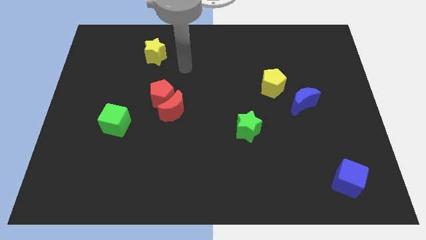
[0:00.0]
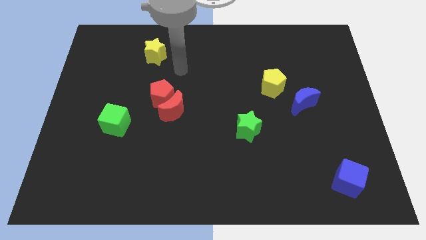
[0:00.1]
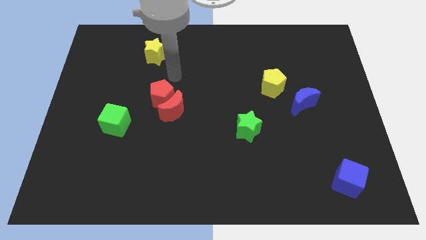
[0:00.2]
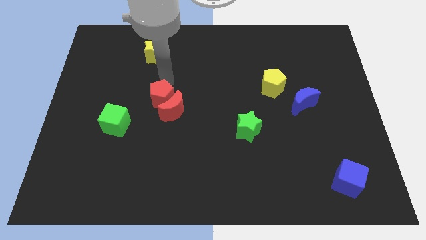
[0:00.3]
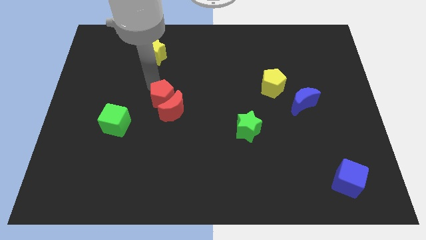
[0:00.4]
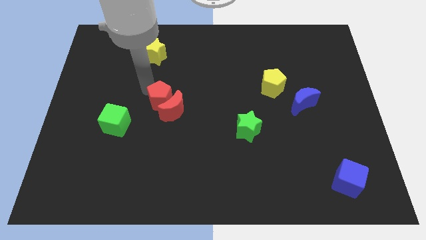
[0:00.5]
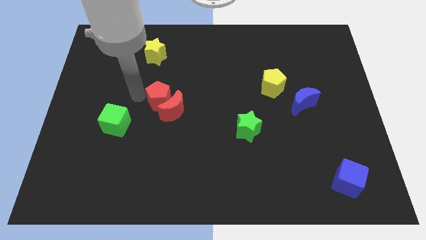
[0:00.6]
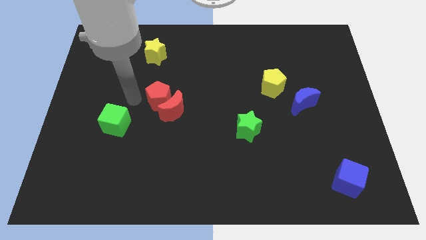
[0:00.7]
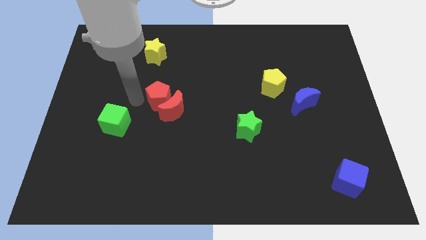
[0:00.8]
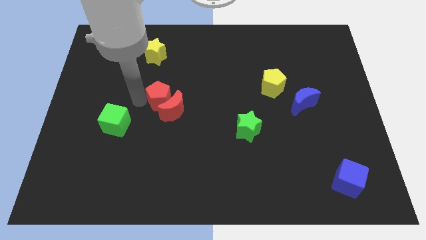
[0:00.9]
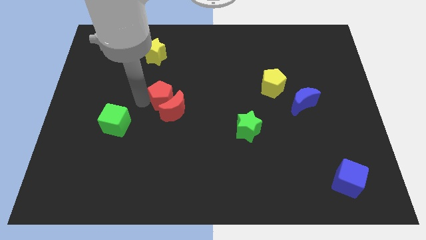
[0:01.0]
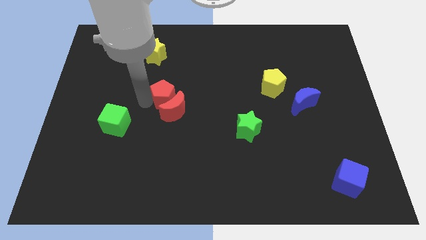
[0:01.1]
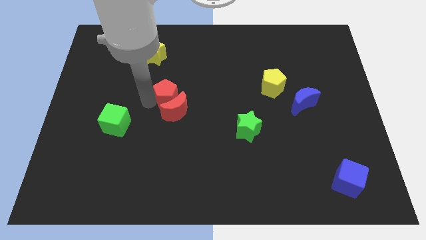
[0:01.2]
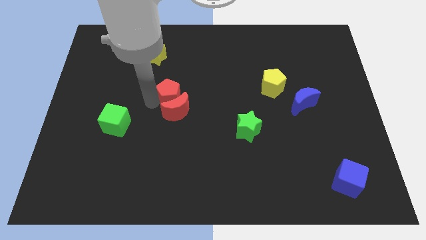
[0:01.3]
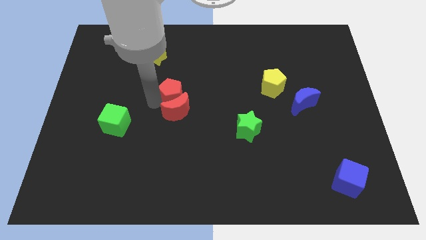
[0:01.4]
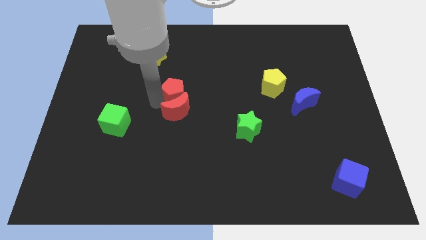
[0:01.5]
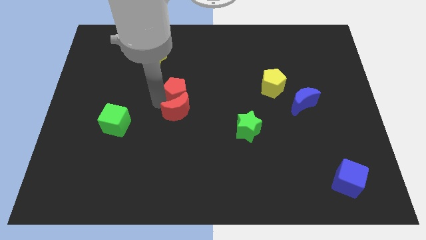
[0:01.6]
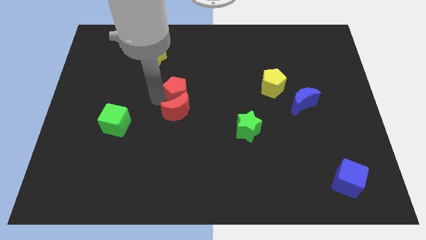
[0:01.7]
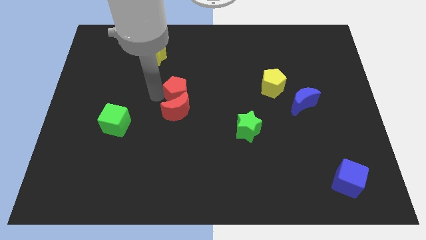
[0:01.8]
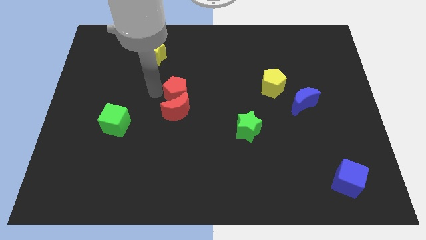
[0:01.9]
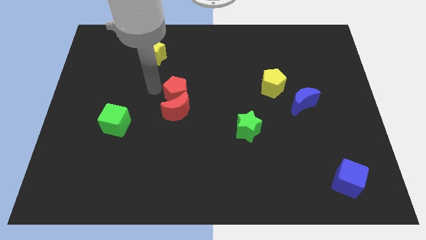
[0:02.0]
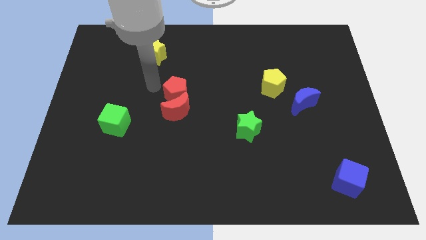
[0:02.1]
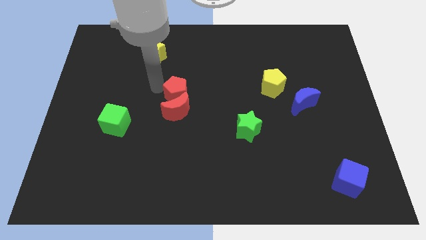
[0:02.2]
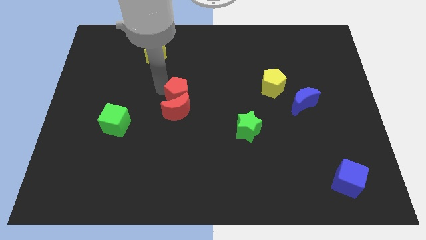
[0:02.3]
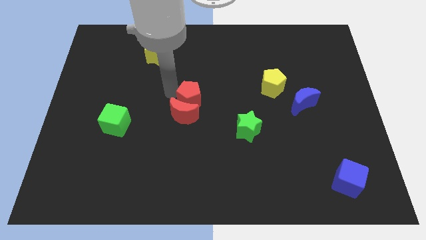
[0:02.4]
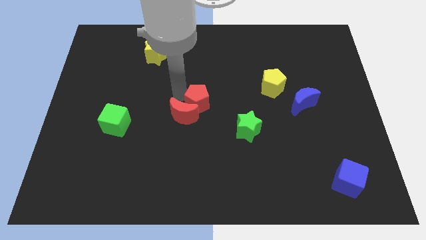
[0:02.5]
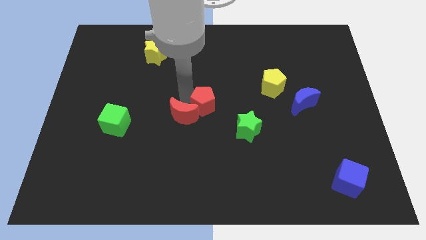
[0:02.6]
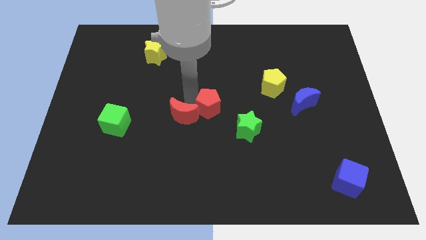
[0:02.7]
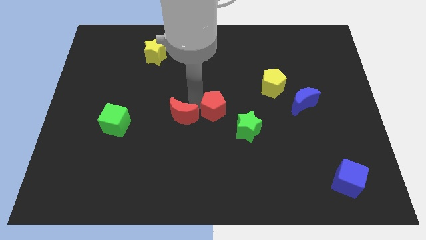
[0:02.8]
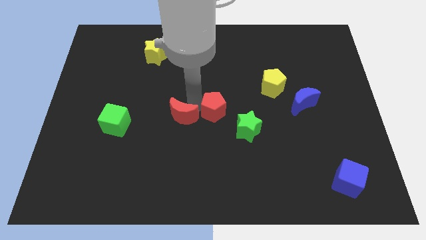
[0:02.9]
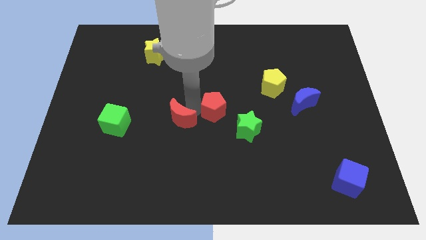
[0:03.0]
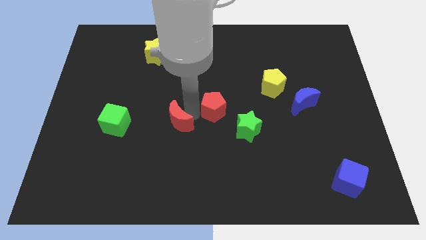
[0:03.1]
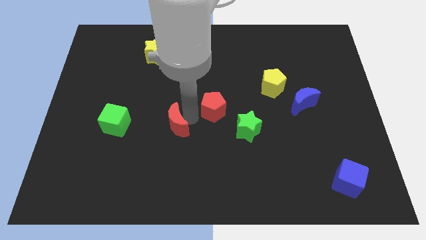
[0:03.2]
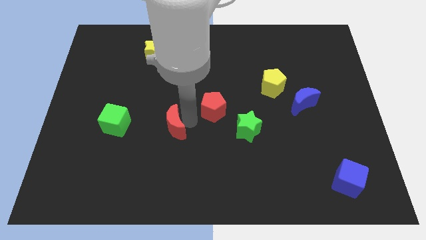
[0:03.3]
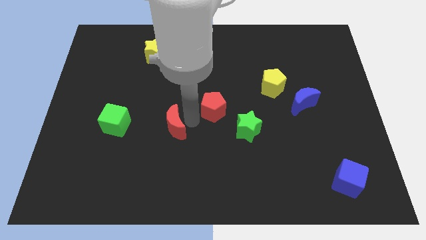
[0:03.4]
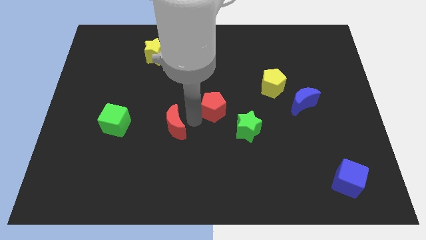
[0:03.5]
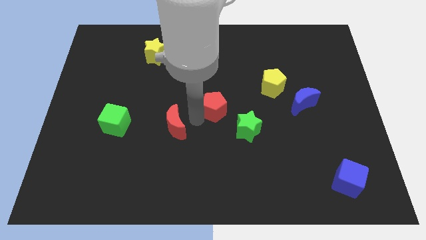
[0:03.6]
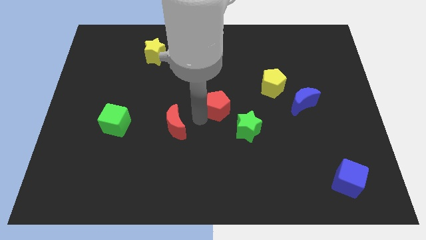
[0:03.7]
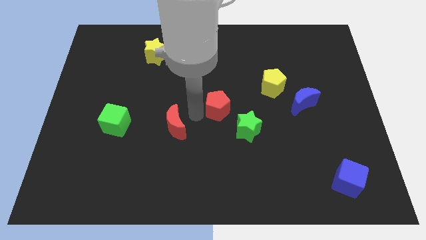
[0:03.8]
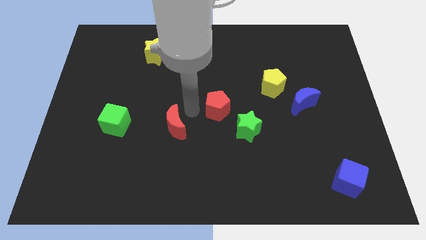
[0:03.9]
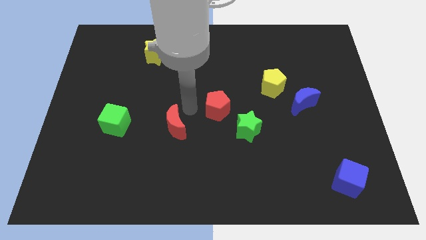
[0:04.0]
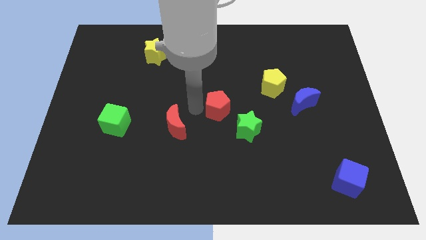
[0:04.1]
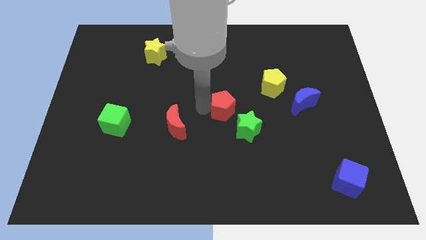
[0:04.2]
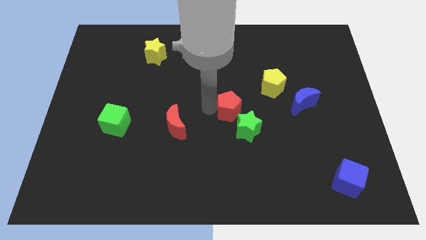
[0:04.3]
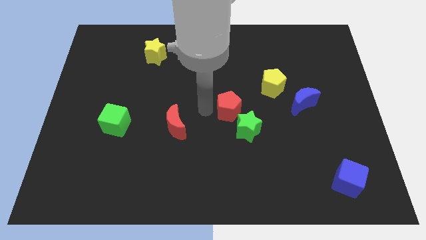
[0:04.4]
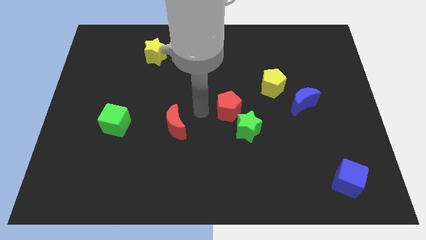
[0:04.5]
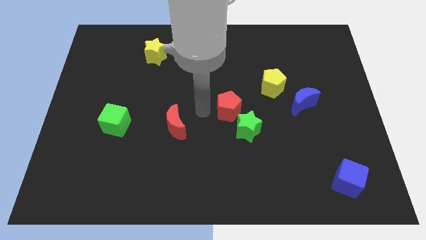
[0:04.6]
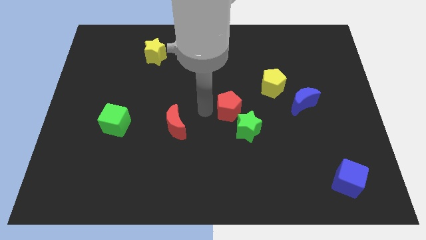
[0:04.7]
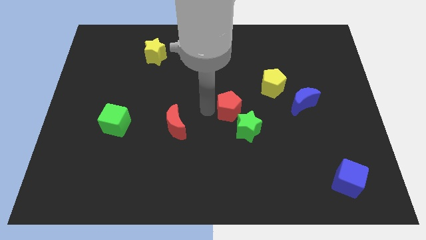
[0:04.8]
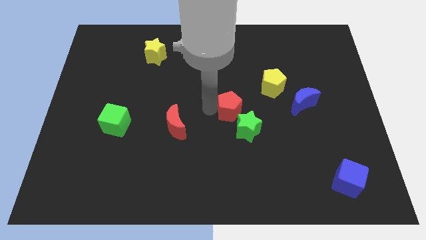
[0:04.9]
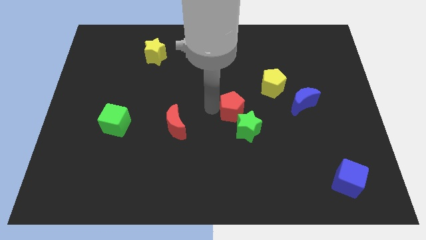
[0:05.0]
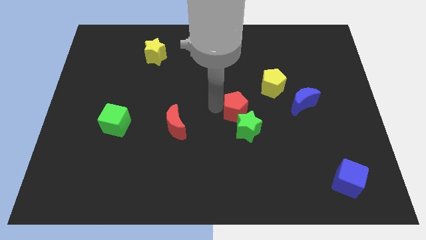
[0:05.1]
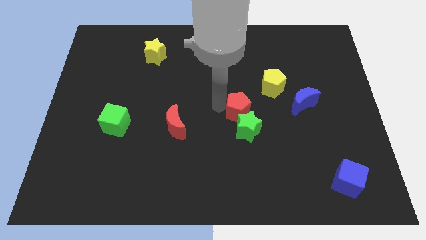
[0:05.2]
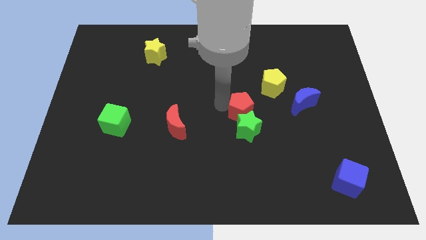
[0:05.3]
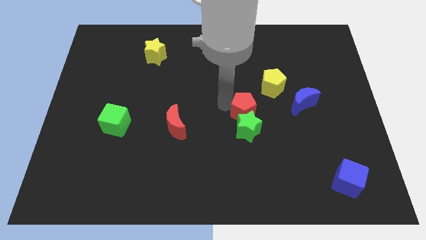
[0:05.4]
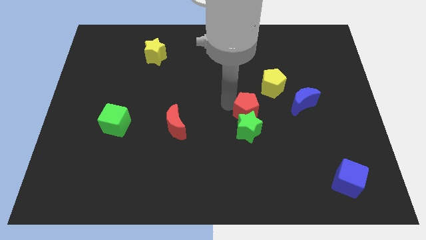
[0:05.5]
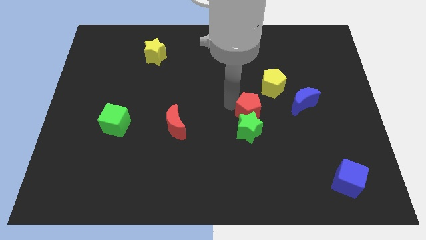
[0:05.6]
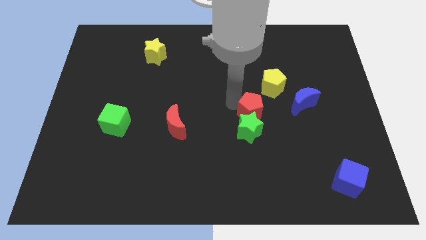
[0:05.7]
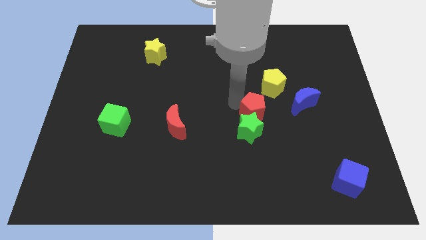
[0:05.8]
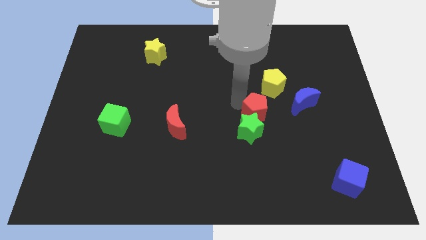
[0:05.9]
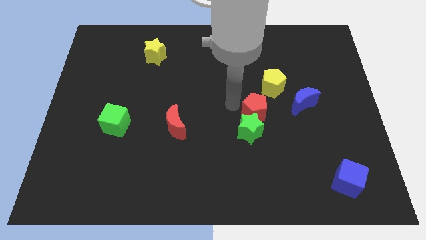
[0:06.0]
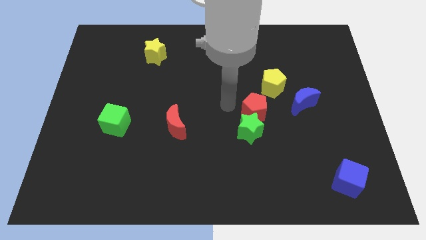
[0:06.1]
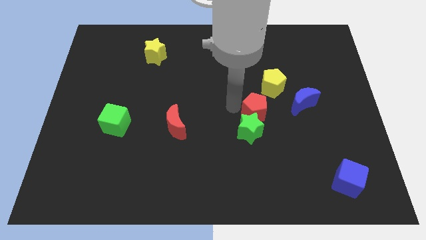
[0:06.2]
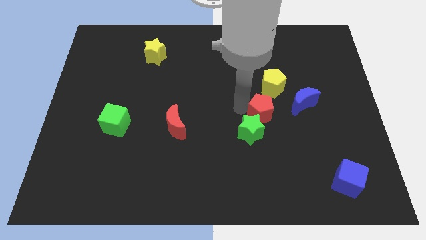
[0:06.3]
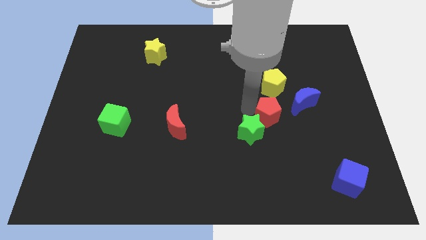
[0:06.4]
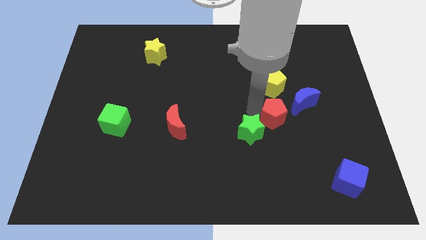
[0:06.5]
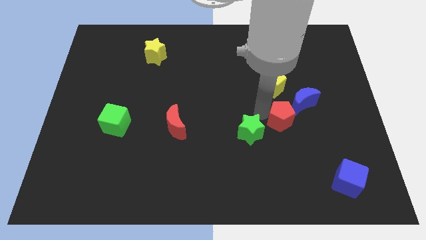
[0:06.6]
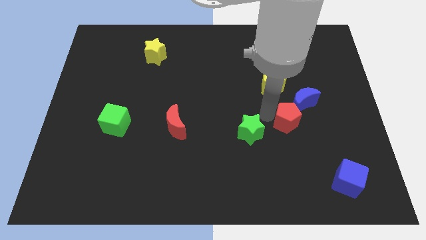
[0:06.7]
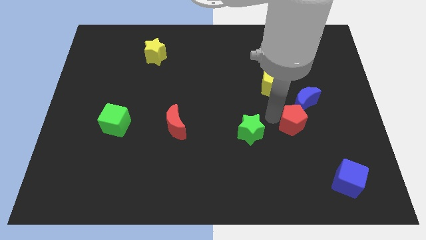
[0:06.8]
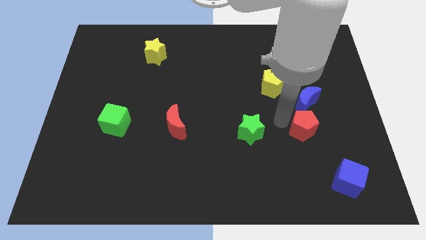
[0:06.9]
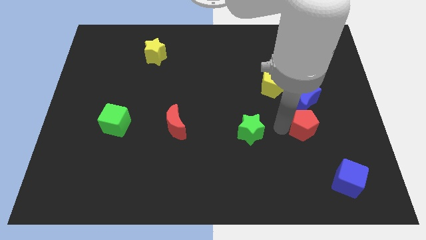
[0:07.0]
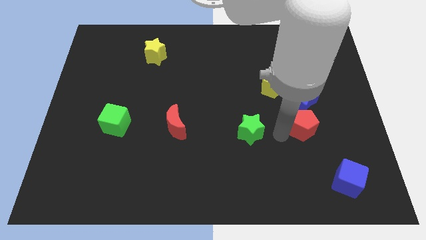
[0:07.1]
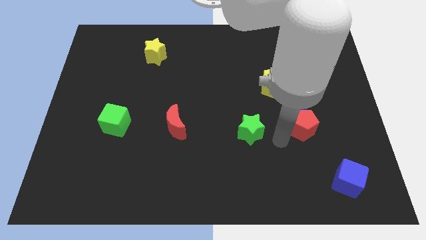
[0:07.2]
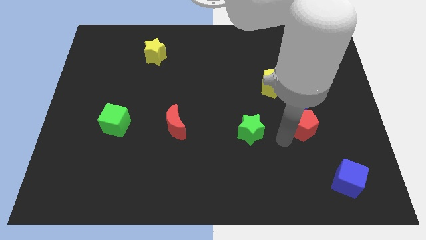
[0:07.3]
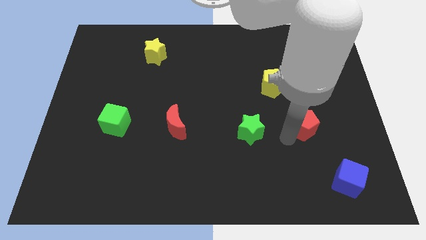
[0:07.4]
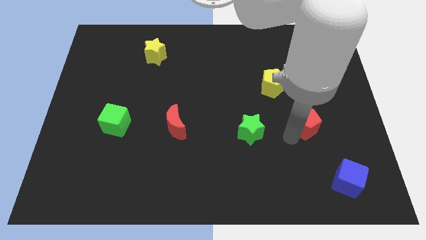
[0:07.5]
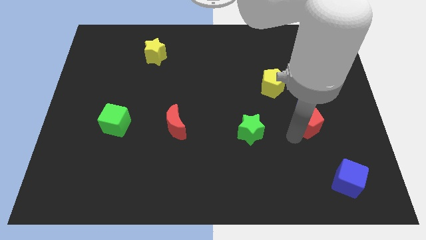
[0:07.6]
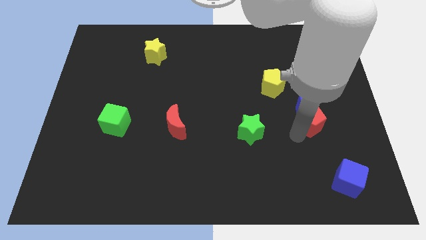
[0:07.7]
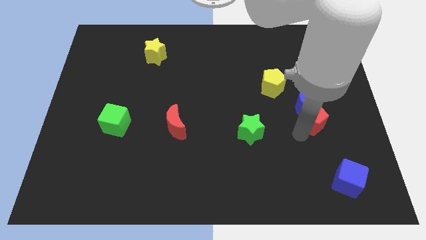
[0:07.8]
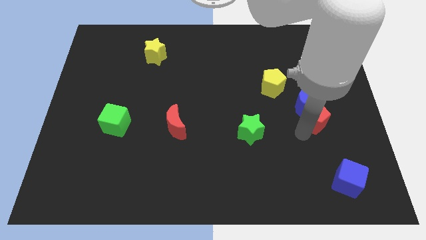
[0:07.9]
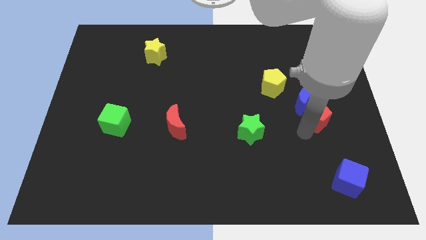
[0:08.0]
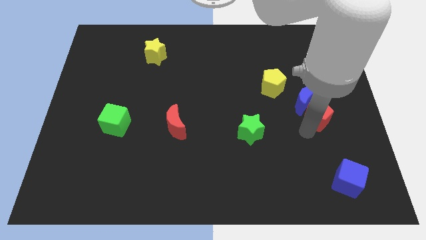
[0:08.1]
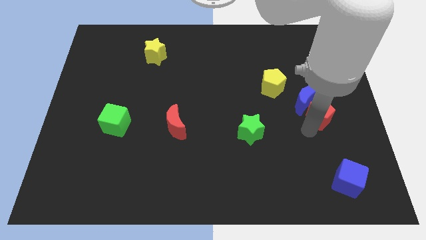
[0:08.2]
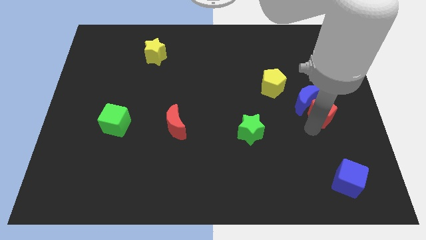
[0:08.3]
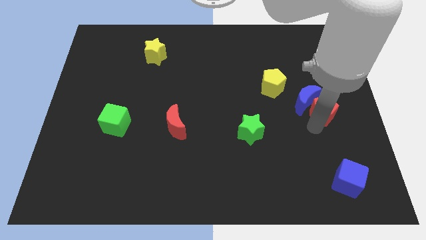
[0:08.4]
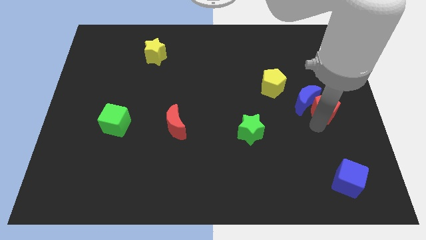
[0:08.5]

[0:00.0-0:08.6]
slide the red pentagon to the right side of the board
